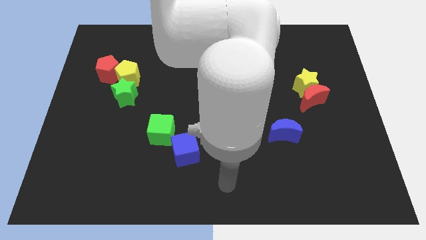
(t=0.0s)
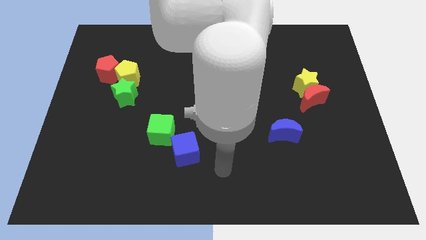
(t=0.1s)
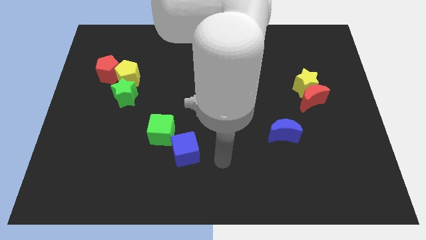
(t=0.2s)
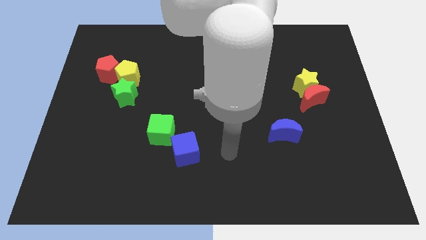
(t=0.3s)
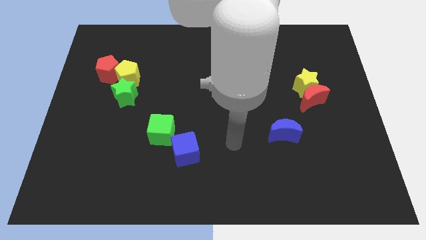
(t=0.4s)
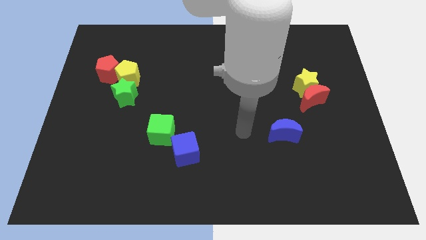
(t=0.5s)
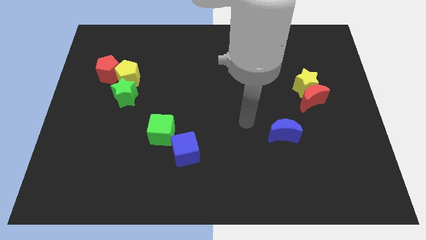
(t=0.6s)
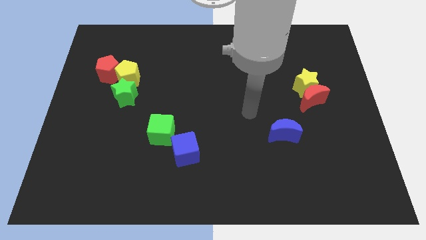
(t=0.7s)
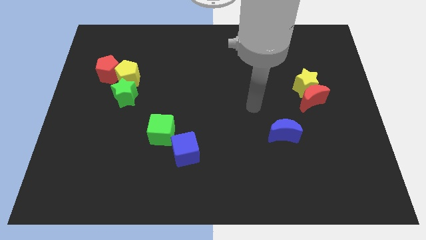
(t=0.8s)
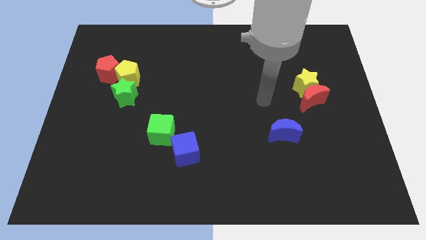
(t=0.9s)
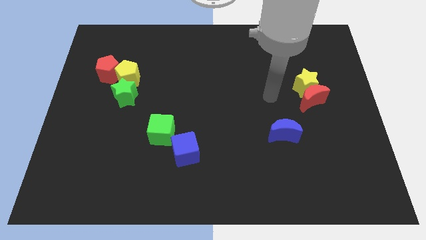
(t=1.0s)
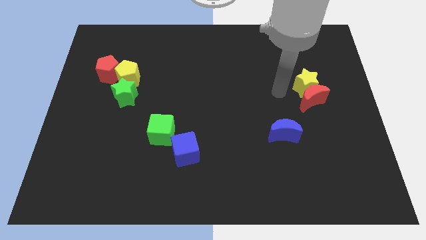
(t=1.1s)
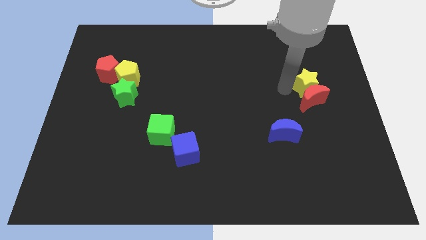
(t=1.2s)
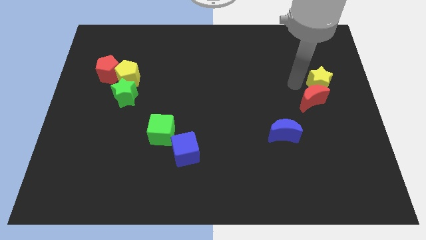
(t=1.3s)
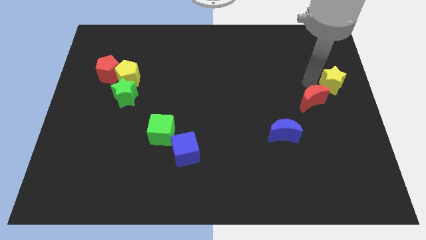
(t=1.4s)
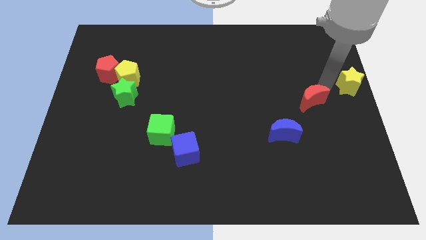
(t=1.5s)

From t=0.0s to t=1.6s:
pull the red moon apart from the yellow star

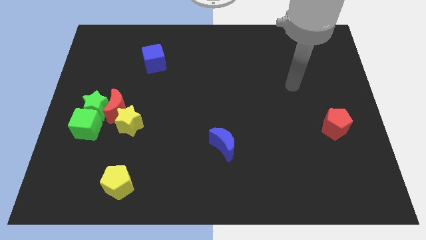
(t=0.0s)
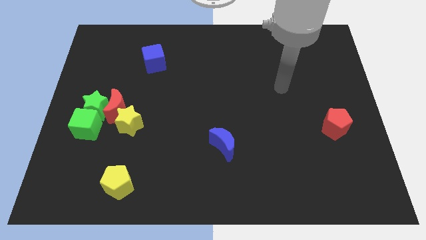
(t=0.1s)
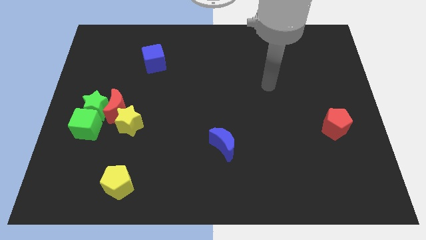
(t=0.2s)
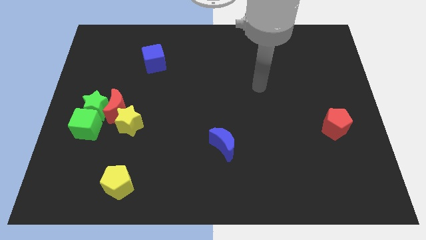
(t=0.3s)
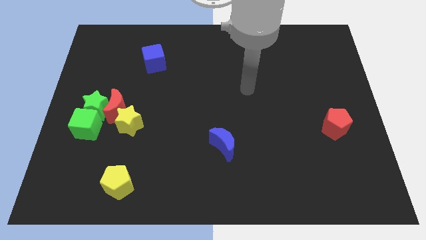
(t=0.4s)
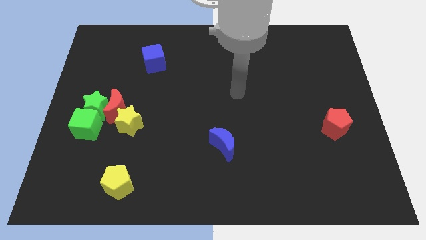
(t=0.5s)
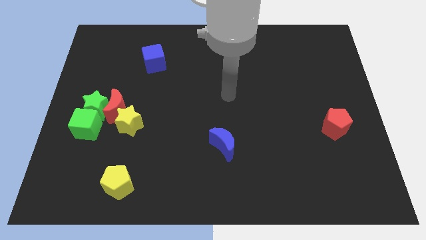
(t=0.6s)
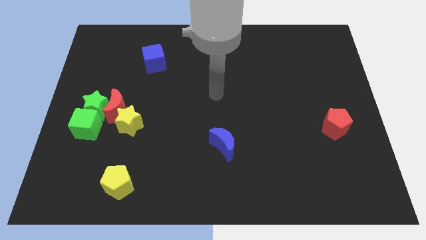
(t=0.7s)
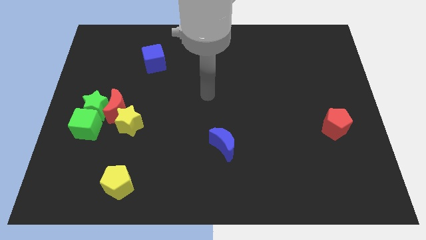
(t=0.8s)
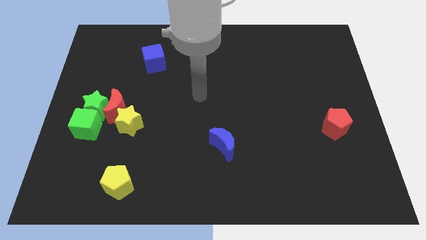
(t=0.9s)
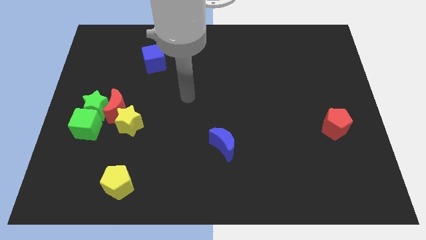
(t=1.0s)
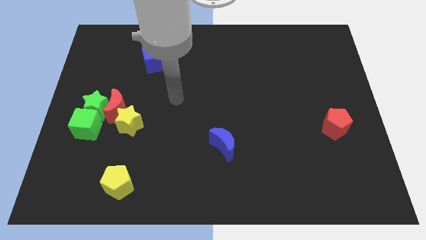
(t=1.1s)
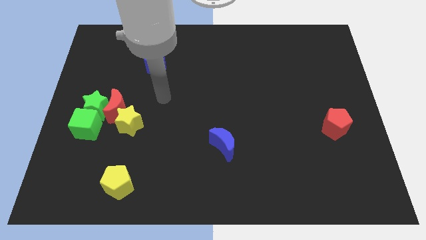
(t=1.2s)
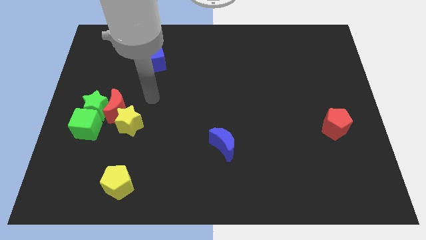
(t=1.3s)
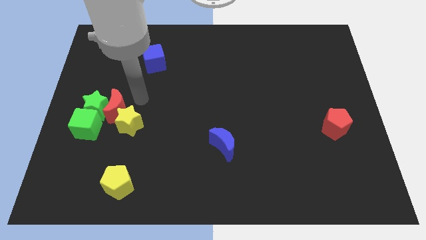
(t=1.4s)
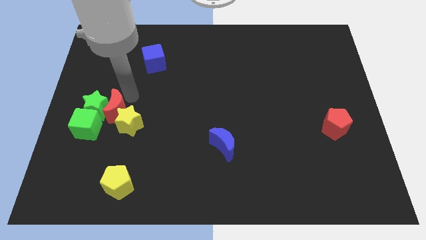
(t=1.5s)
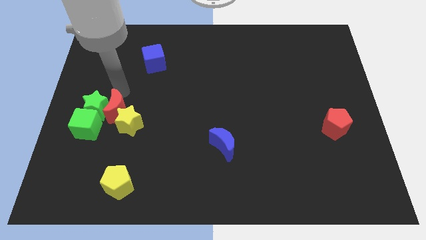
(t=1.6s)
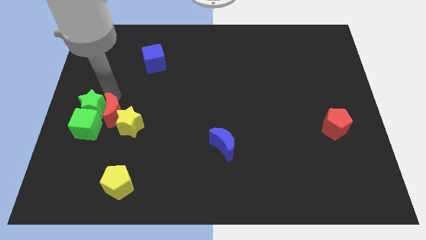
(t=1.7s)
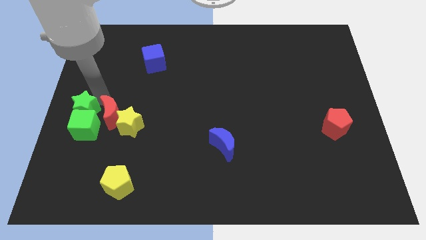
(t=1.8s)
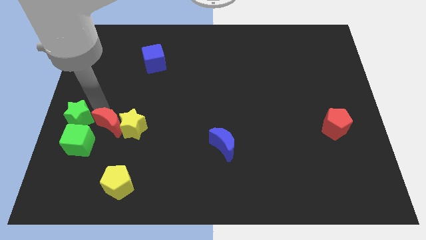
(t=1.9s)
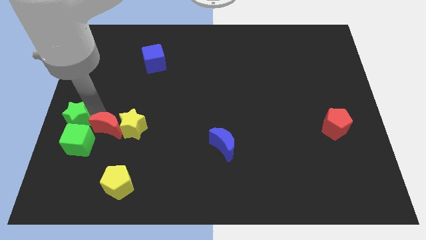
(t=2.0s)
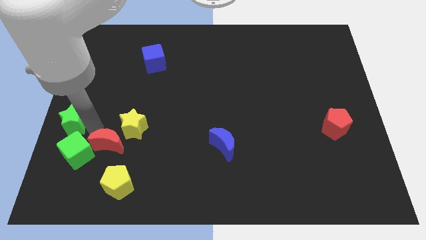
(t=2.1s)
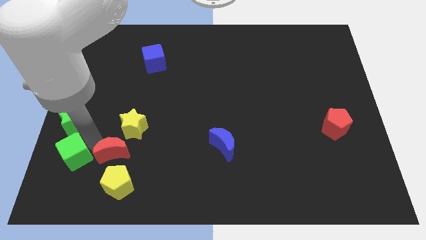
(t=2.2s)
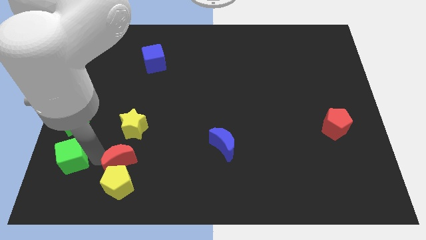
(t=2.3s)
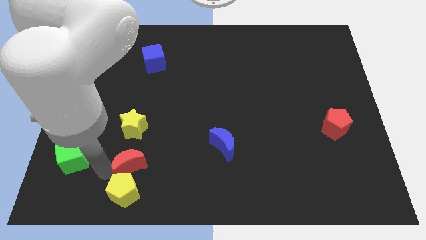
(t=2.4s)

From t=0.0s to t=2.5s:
pull the red moon apart from the group

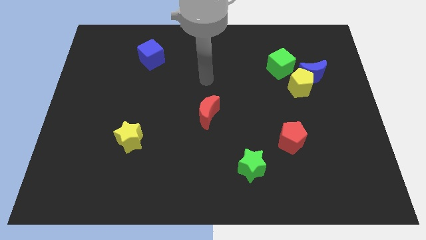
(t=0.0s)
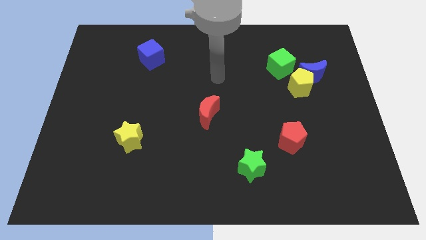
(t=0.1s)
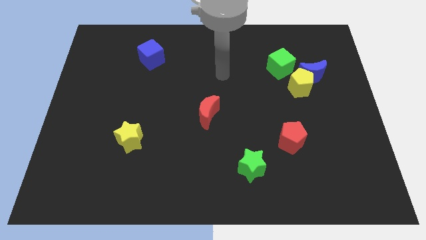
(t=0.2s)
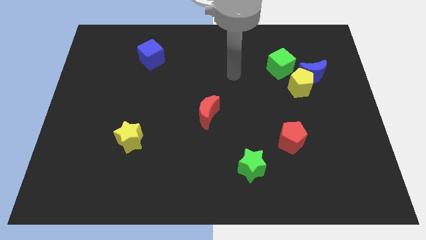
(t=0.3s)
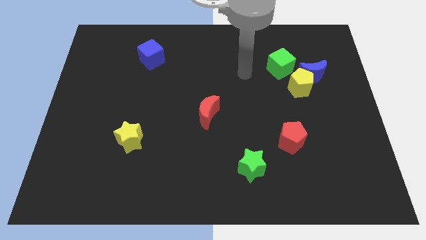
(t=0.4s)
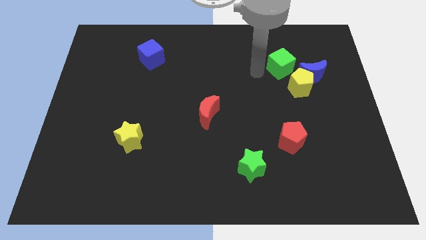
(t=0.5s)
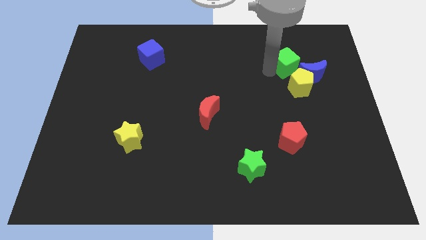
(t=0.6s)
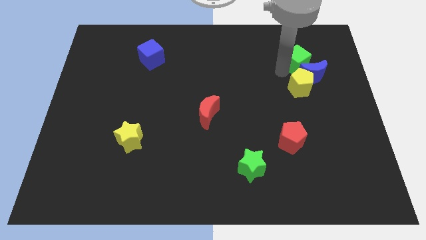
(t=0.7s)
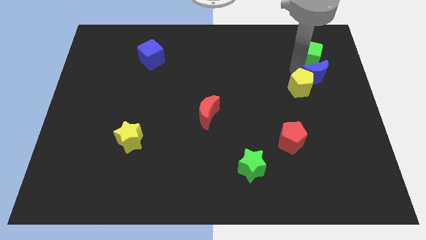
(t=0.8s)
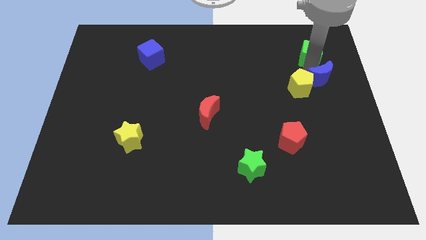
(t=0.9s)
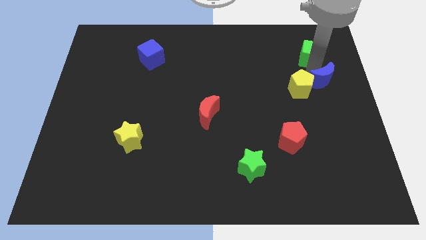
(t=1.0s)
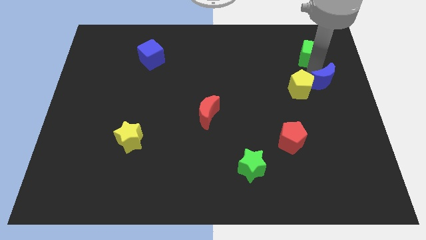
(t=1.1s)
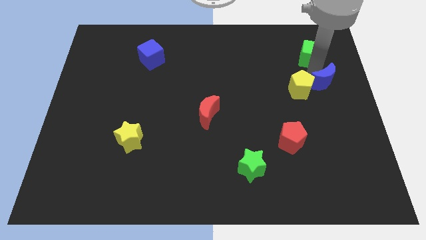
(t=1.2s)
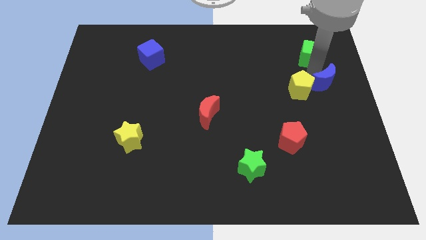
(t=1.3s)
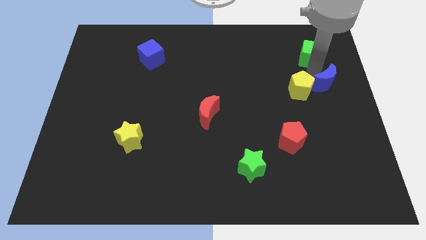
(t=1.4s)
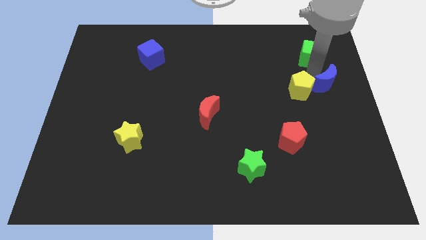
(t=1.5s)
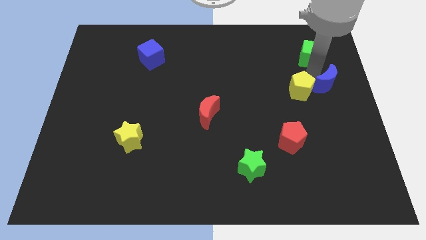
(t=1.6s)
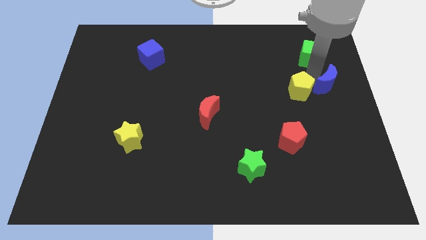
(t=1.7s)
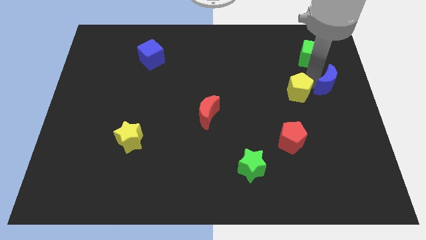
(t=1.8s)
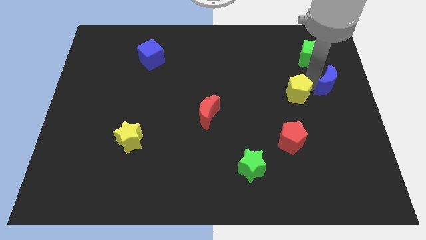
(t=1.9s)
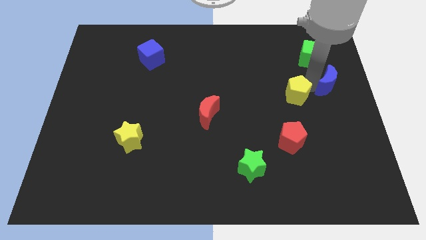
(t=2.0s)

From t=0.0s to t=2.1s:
move the yellow pentagon away from the blue moon and green cube

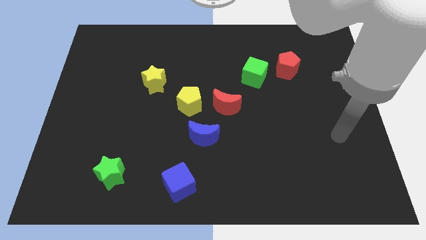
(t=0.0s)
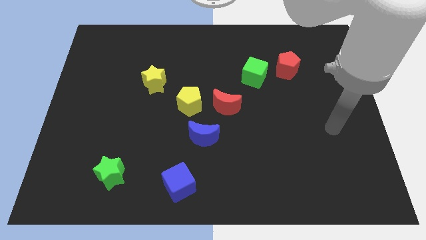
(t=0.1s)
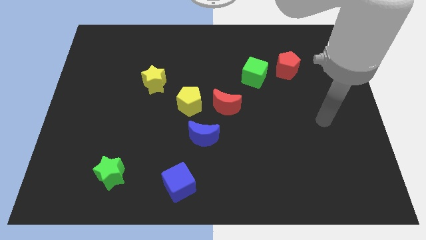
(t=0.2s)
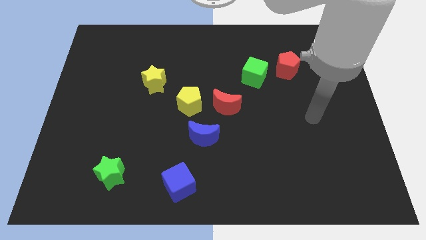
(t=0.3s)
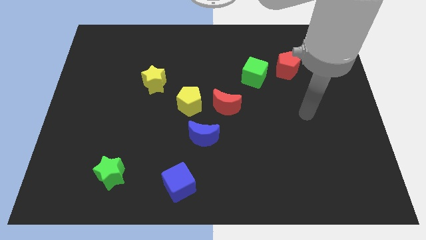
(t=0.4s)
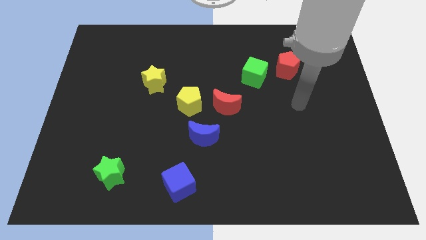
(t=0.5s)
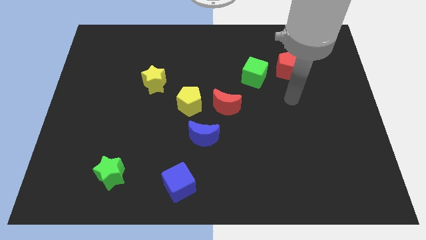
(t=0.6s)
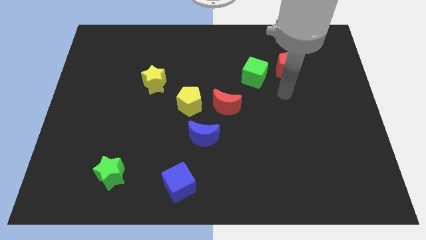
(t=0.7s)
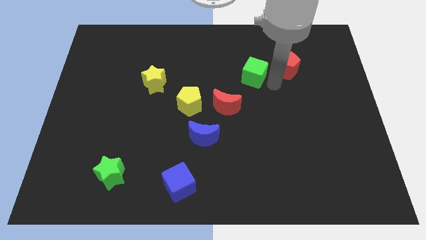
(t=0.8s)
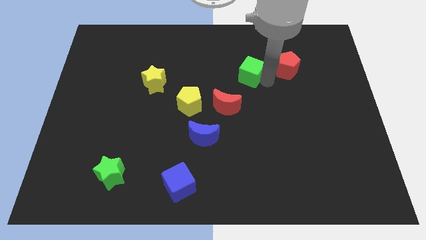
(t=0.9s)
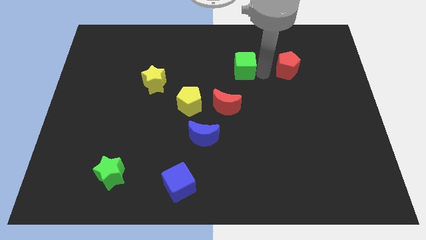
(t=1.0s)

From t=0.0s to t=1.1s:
move the red pentagon away from the green cube

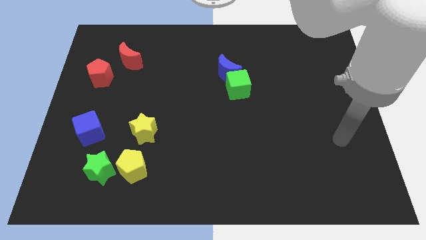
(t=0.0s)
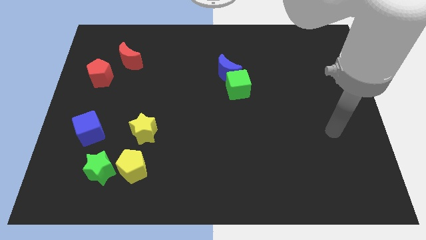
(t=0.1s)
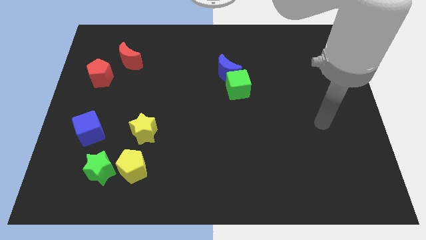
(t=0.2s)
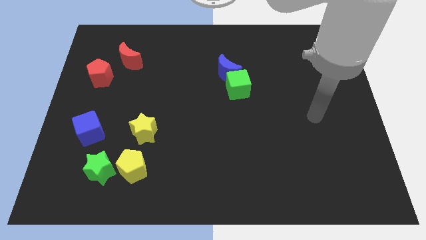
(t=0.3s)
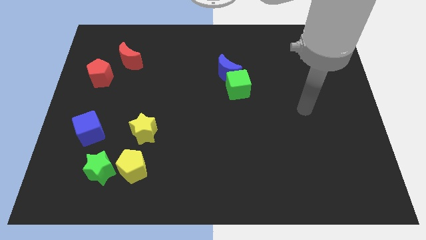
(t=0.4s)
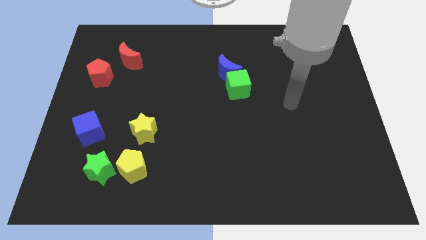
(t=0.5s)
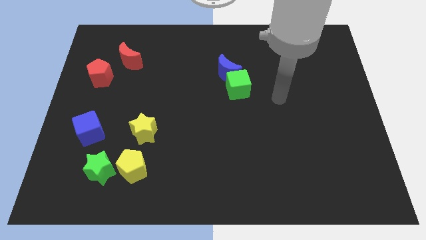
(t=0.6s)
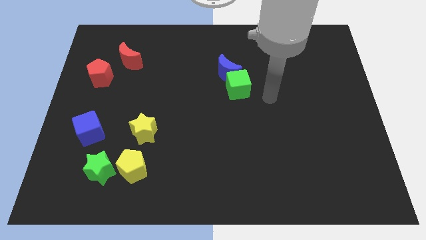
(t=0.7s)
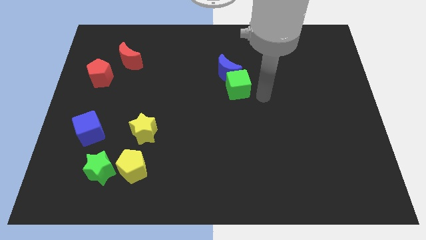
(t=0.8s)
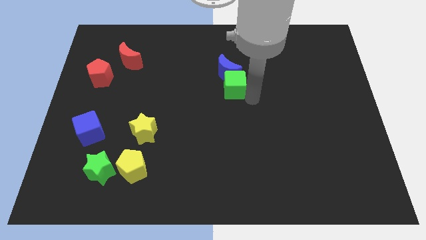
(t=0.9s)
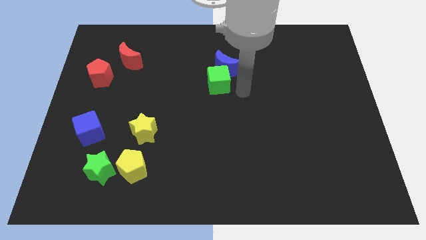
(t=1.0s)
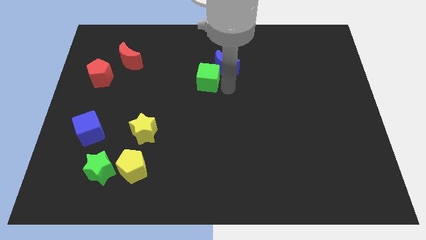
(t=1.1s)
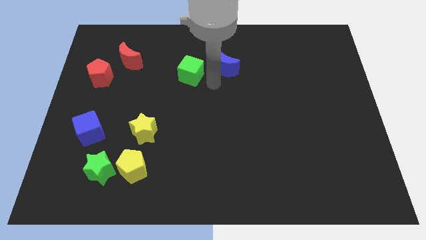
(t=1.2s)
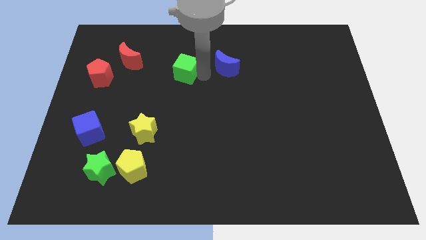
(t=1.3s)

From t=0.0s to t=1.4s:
move the blue moon away from the green cube

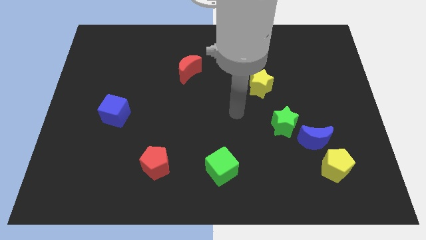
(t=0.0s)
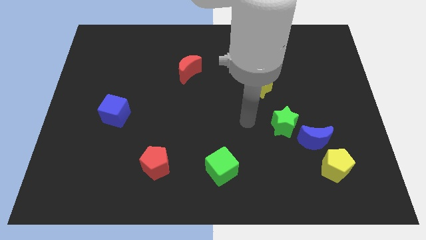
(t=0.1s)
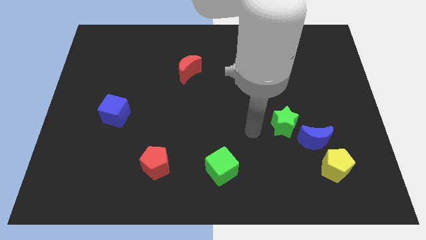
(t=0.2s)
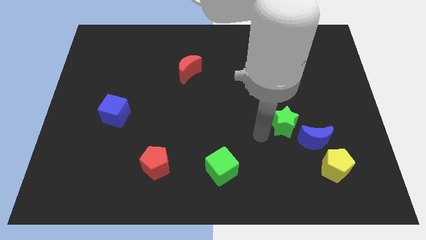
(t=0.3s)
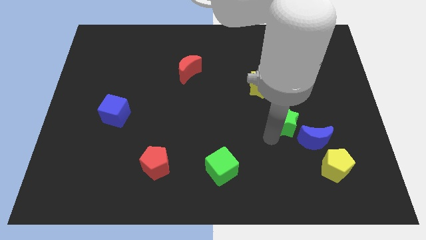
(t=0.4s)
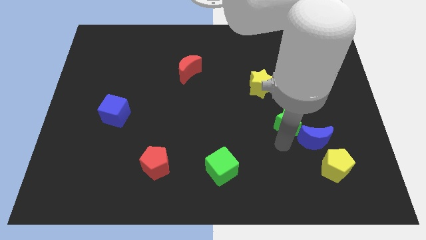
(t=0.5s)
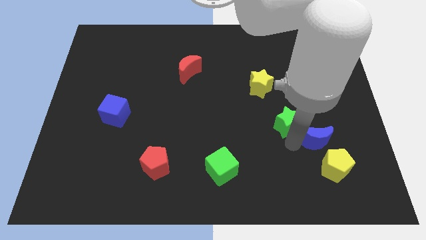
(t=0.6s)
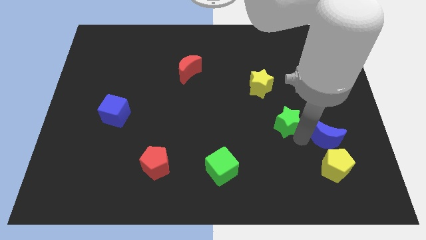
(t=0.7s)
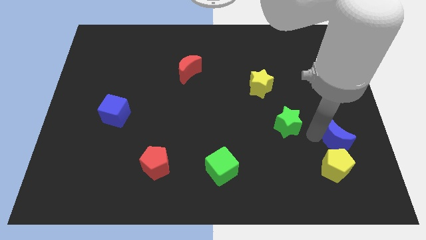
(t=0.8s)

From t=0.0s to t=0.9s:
pull the green star apart from the blue moon
